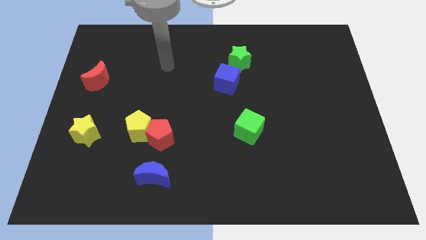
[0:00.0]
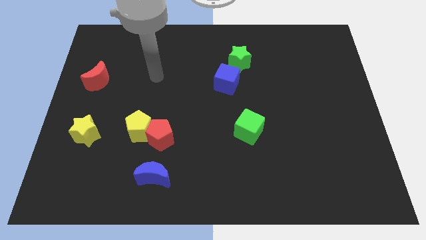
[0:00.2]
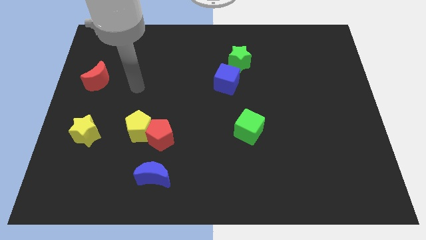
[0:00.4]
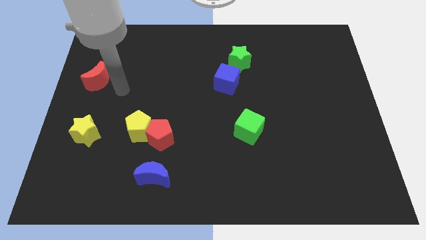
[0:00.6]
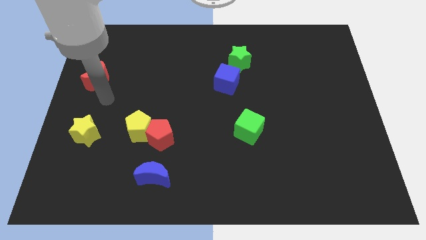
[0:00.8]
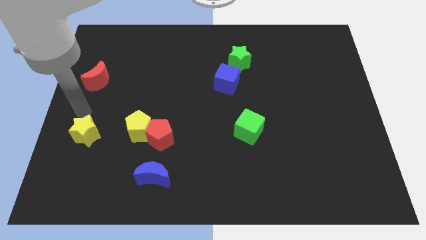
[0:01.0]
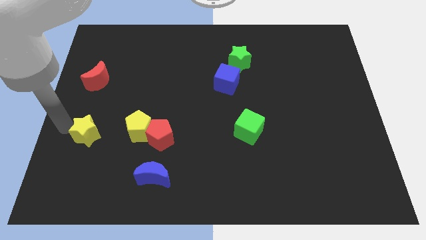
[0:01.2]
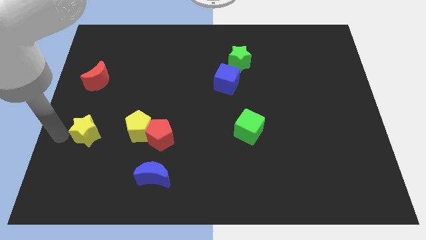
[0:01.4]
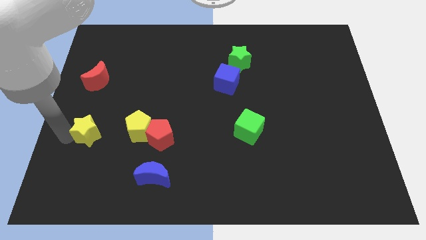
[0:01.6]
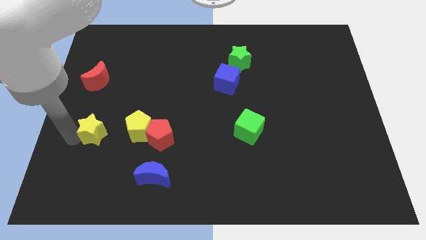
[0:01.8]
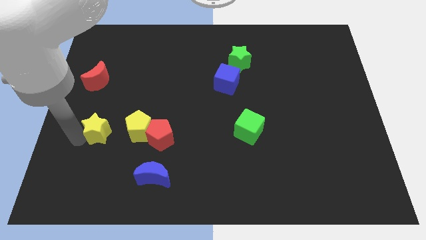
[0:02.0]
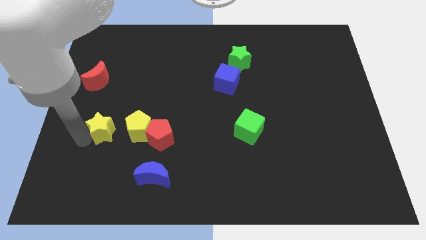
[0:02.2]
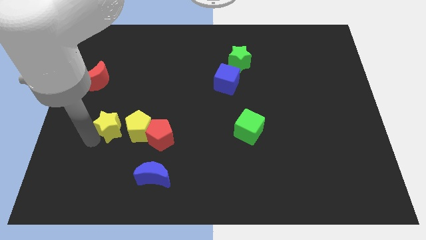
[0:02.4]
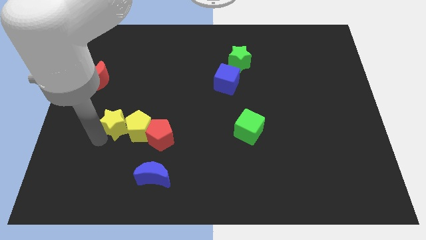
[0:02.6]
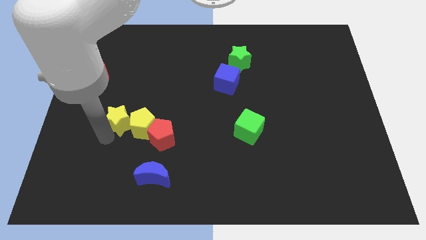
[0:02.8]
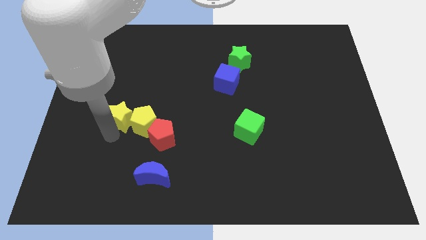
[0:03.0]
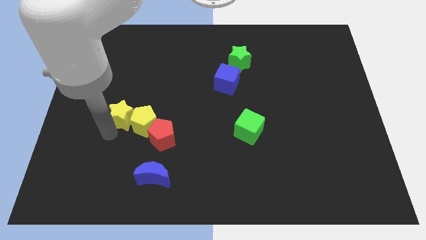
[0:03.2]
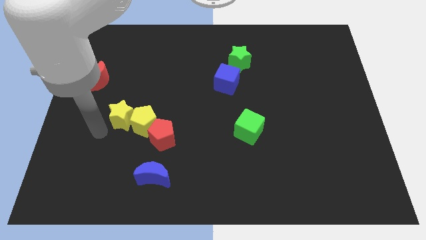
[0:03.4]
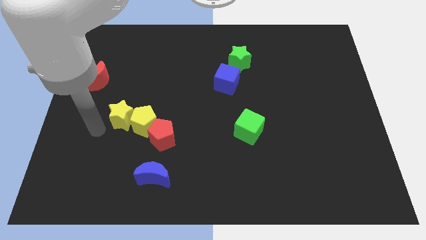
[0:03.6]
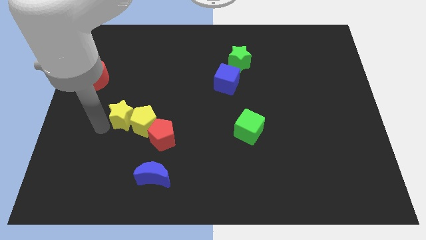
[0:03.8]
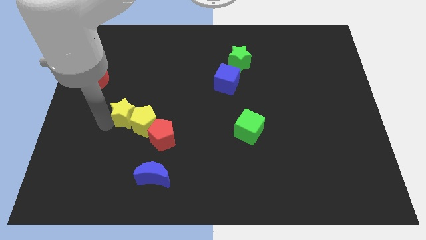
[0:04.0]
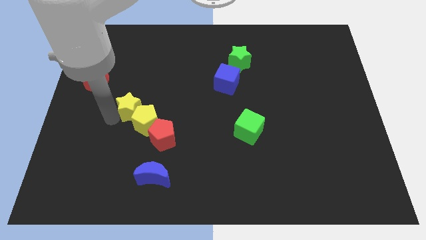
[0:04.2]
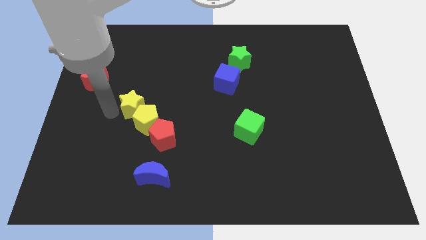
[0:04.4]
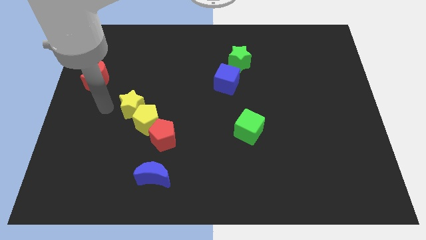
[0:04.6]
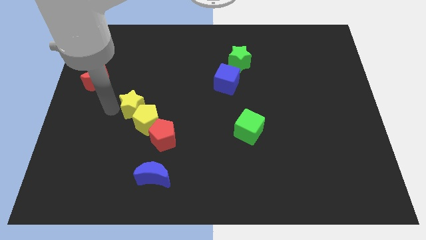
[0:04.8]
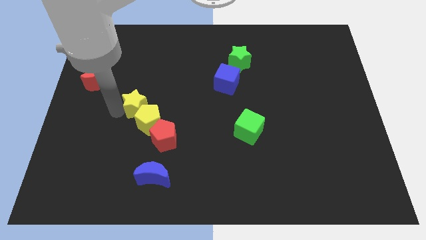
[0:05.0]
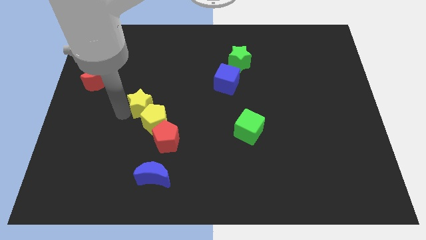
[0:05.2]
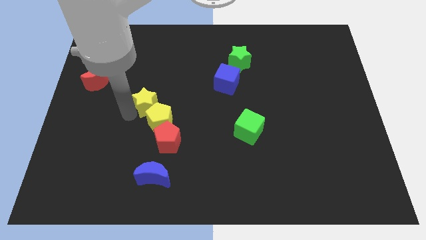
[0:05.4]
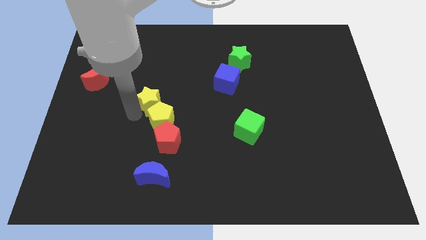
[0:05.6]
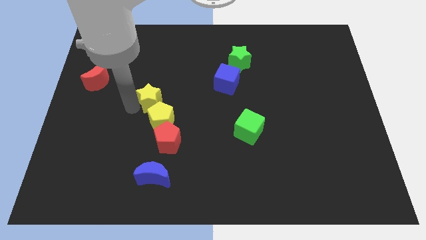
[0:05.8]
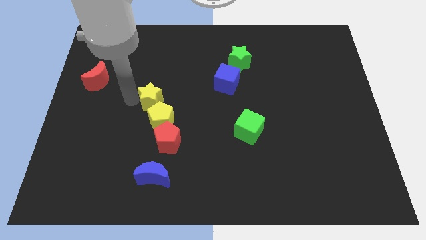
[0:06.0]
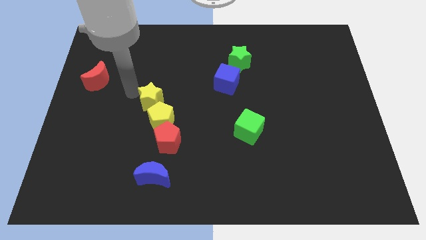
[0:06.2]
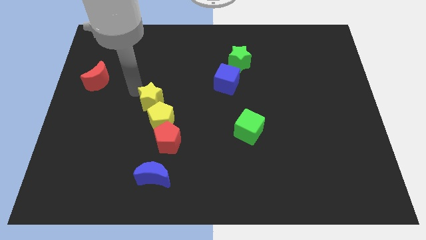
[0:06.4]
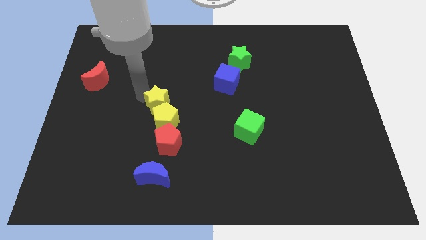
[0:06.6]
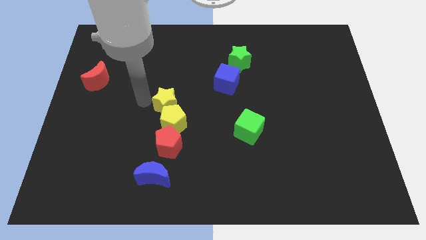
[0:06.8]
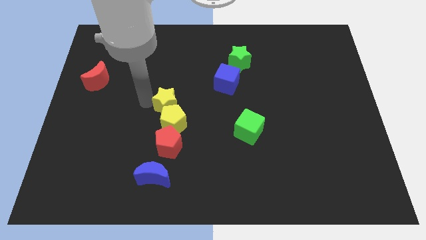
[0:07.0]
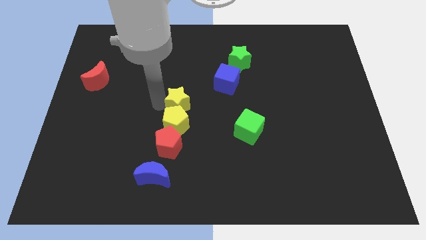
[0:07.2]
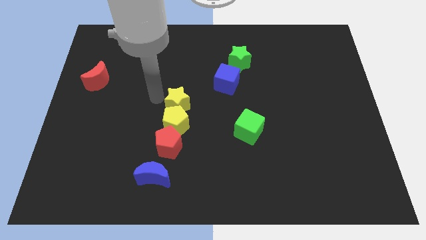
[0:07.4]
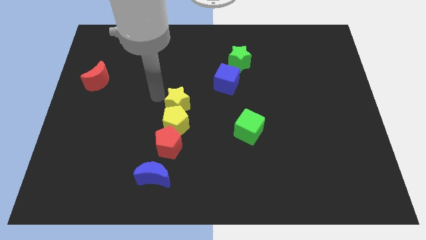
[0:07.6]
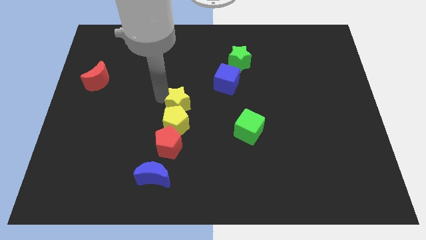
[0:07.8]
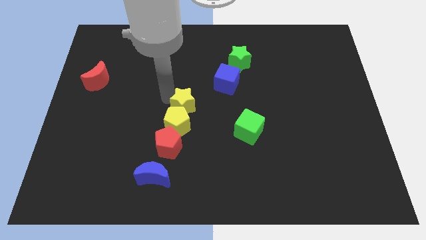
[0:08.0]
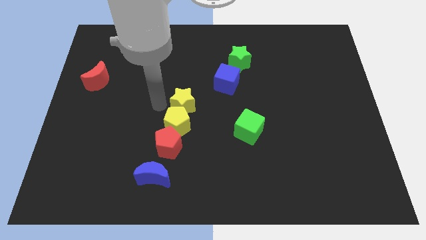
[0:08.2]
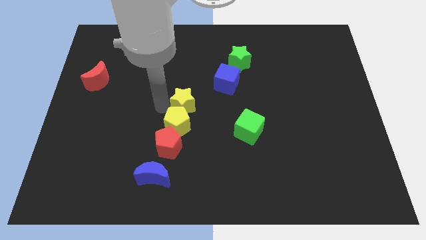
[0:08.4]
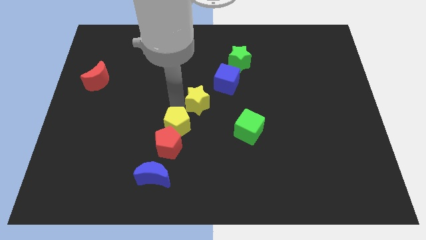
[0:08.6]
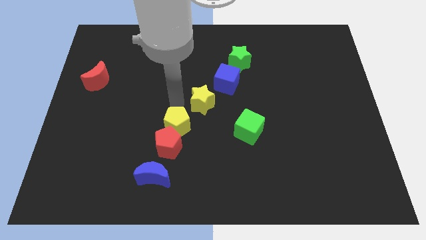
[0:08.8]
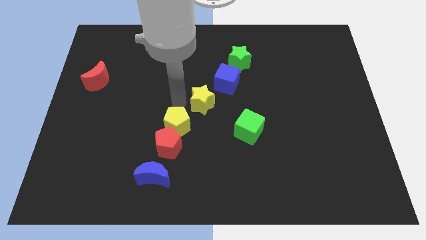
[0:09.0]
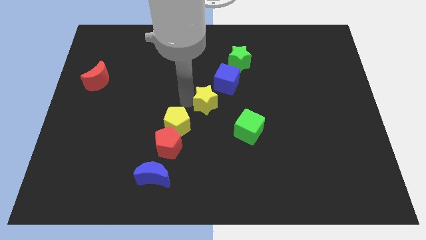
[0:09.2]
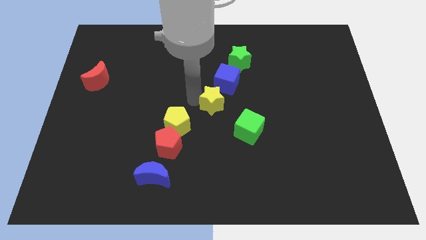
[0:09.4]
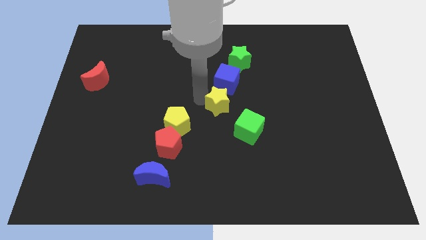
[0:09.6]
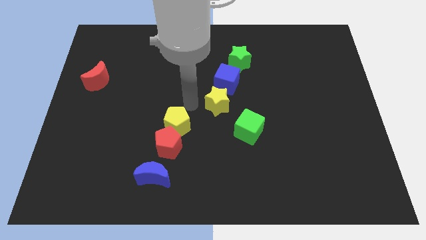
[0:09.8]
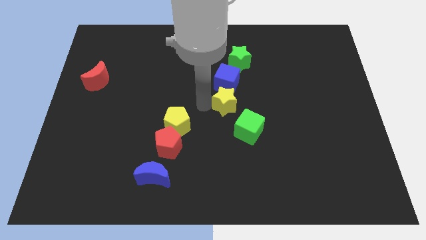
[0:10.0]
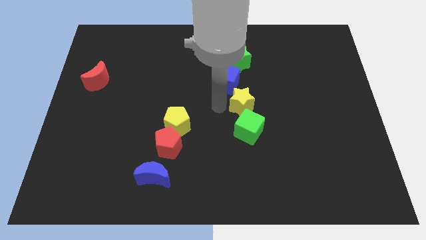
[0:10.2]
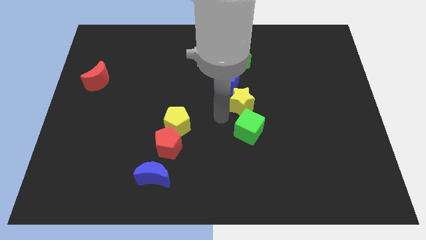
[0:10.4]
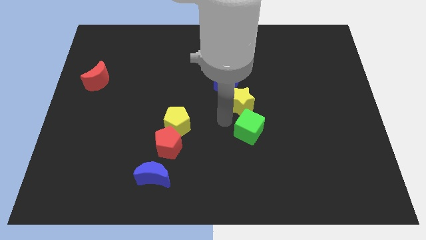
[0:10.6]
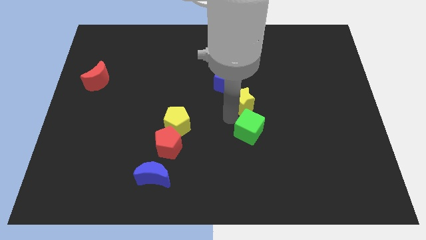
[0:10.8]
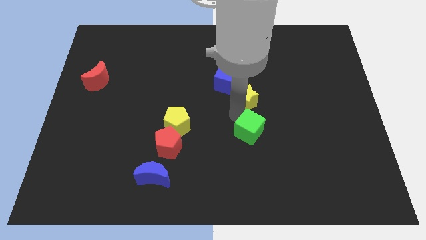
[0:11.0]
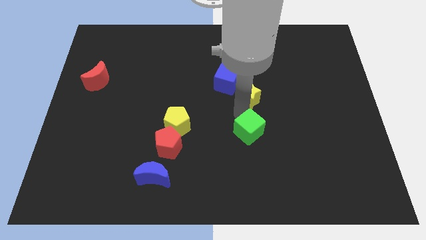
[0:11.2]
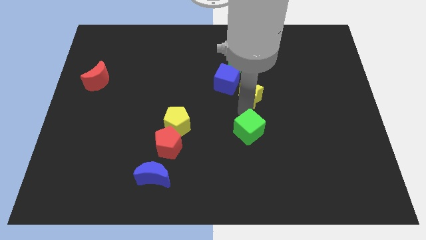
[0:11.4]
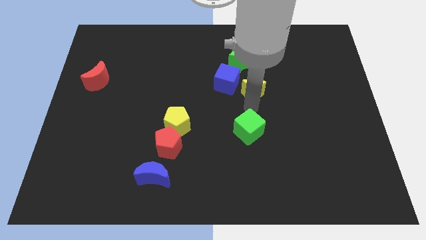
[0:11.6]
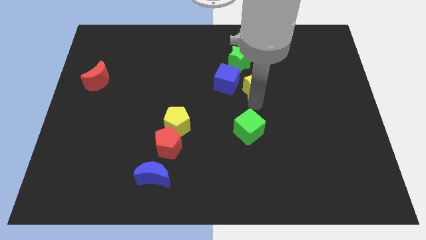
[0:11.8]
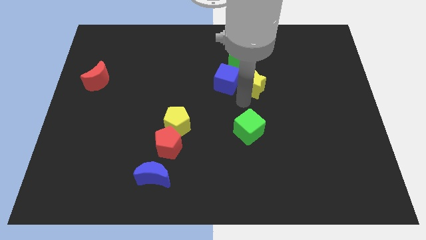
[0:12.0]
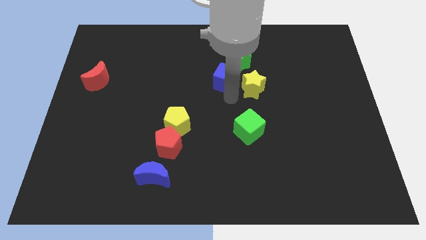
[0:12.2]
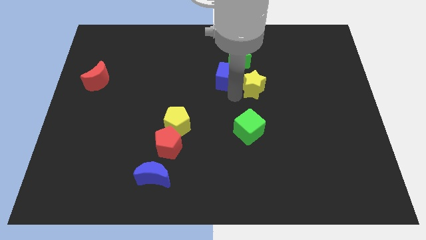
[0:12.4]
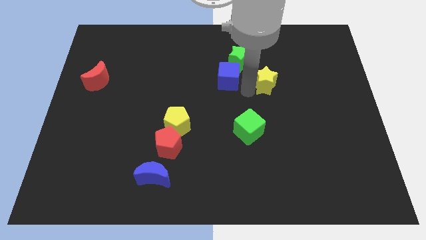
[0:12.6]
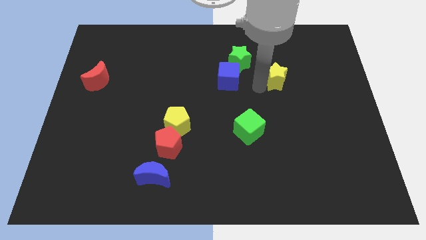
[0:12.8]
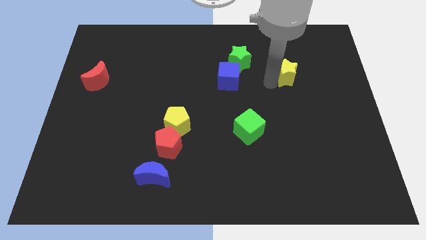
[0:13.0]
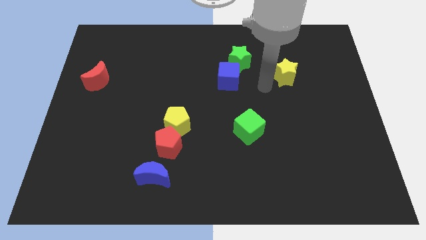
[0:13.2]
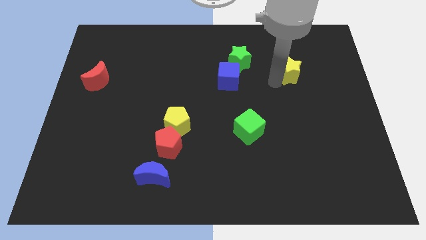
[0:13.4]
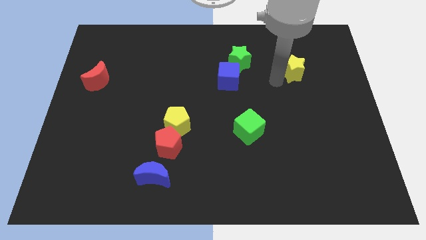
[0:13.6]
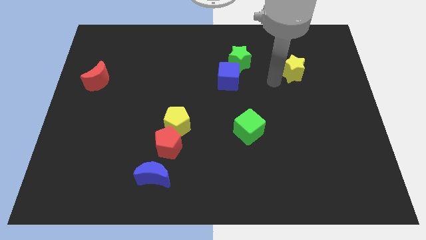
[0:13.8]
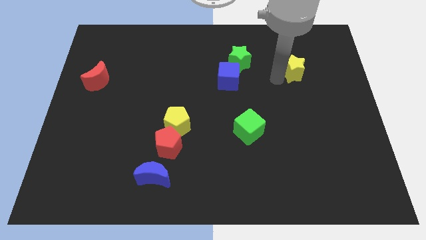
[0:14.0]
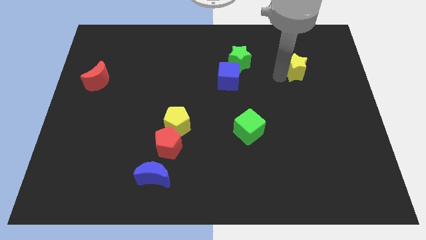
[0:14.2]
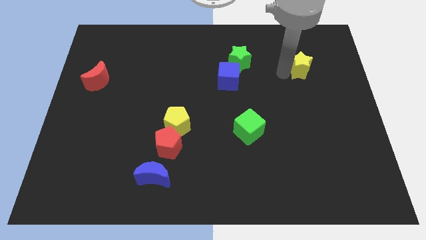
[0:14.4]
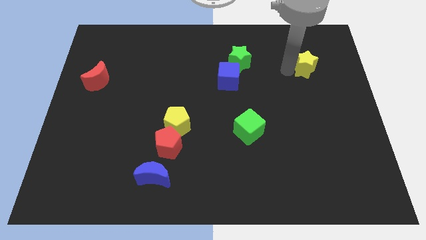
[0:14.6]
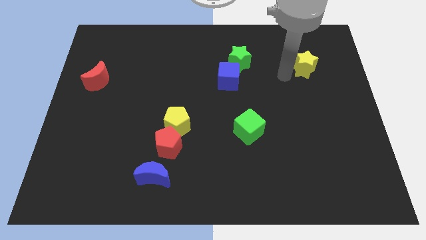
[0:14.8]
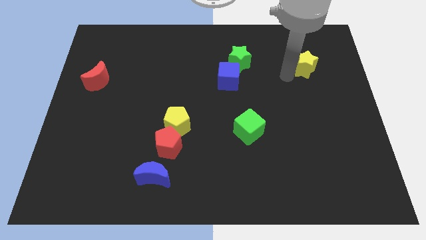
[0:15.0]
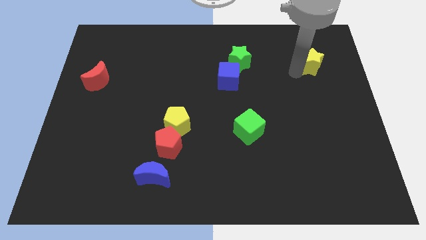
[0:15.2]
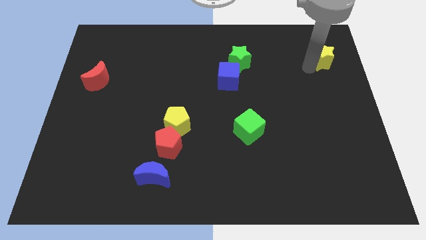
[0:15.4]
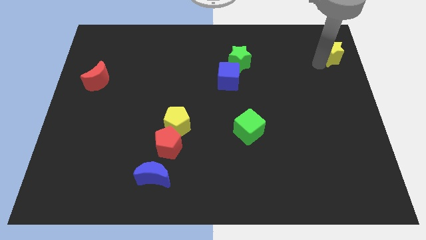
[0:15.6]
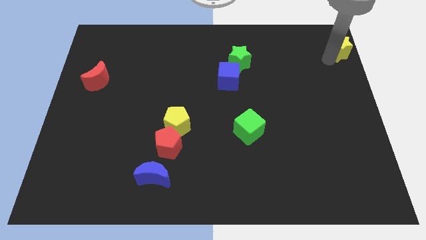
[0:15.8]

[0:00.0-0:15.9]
slide the yellow star to the top right corner
